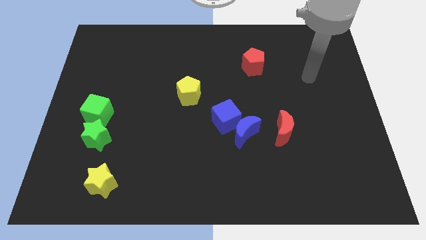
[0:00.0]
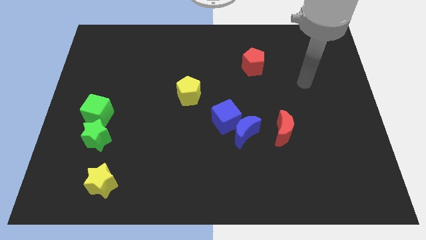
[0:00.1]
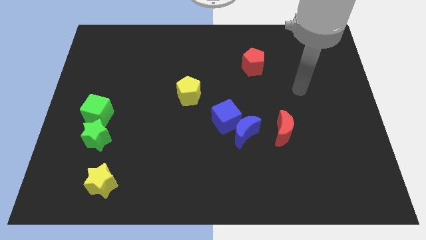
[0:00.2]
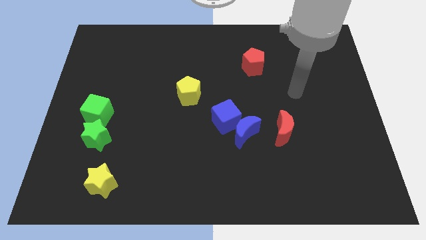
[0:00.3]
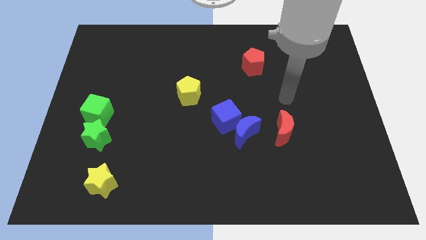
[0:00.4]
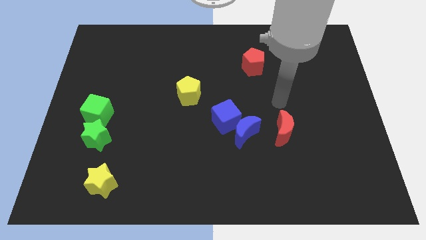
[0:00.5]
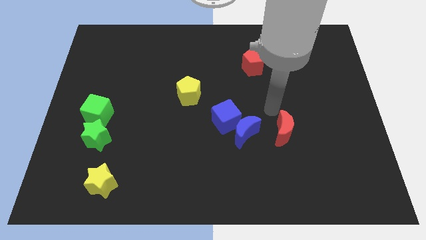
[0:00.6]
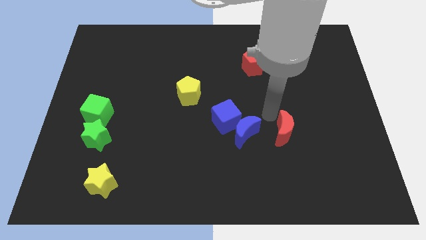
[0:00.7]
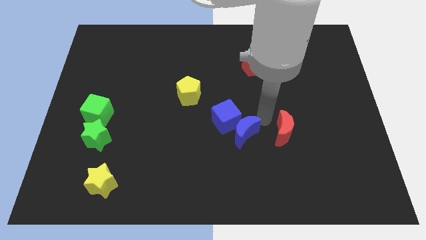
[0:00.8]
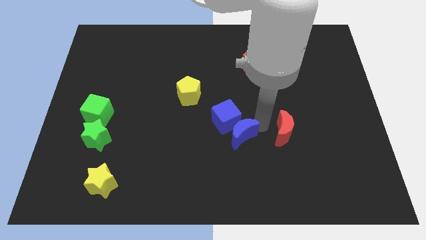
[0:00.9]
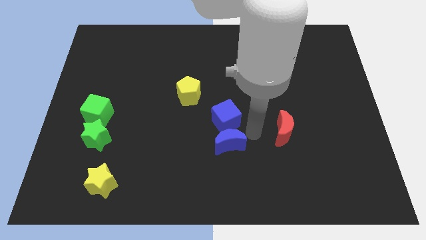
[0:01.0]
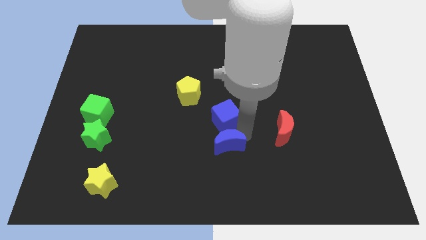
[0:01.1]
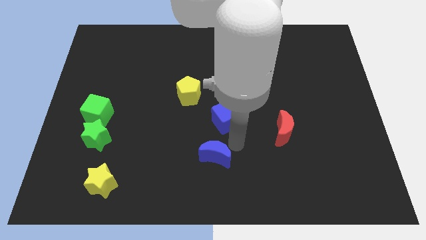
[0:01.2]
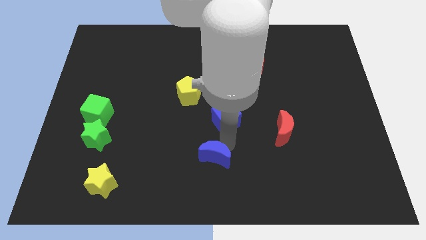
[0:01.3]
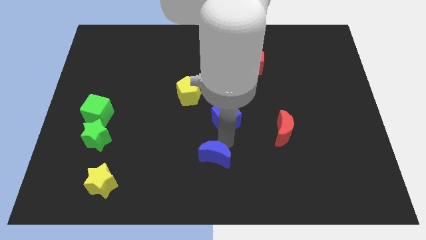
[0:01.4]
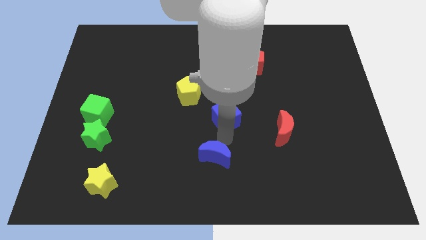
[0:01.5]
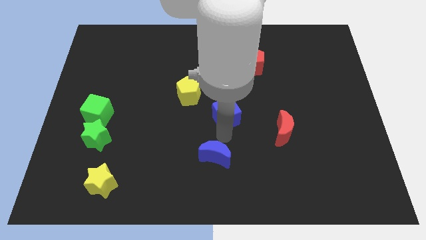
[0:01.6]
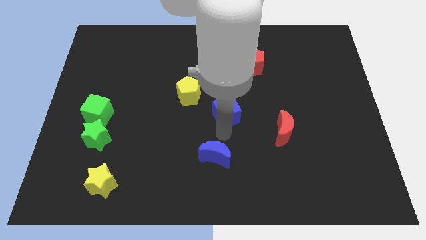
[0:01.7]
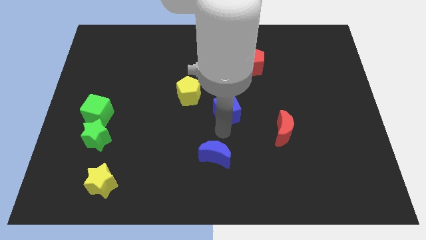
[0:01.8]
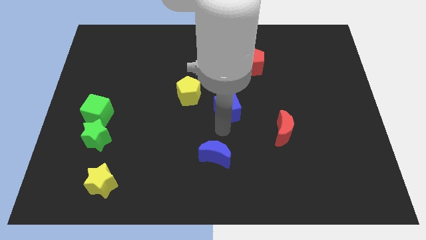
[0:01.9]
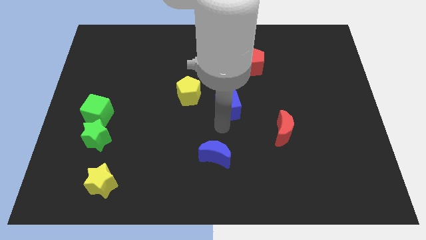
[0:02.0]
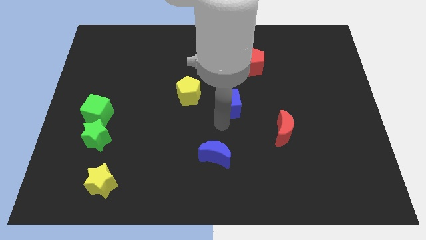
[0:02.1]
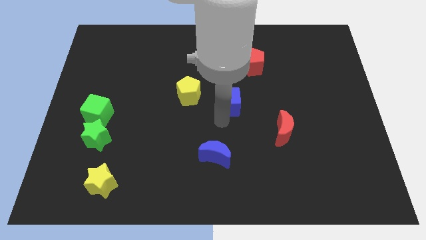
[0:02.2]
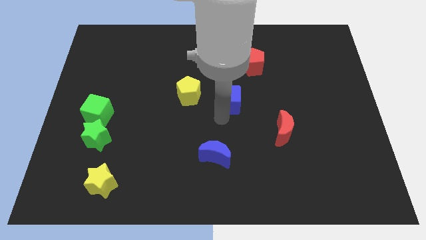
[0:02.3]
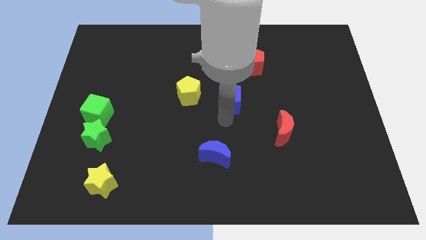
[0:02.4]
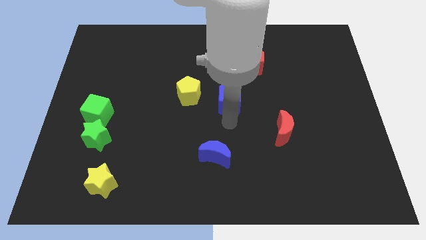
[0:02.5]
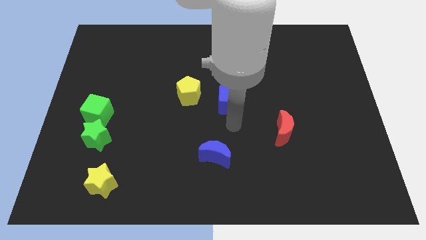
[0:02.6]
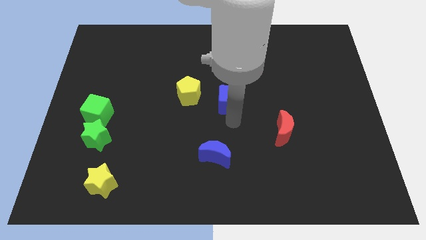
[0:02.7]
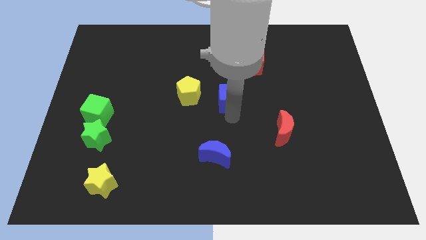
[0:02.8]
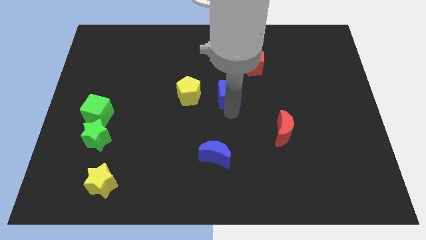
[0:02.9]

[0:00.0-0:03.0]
slide the blue cube upwards a little bit

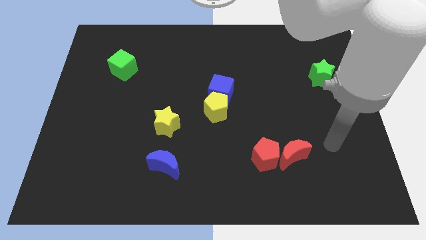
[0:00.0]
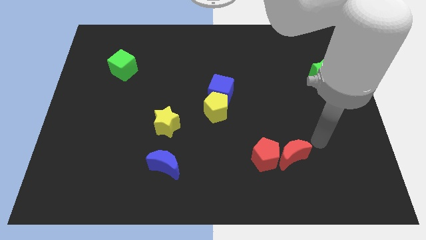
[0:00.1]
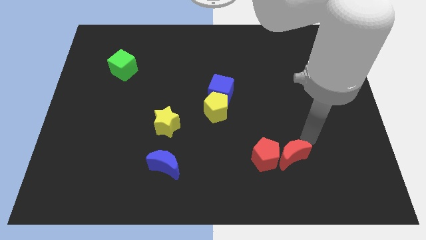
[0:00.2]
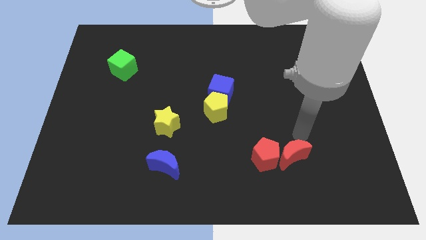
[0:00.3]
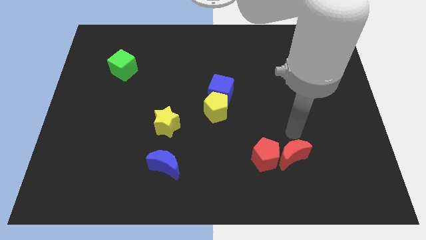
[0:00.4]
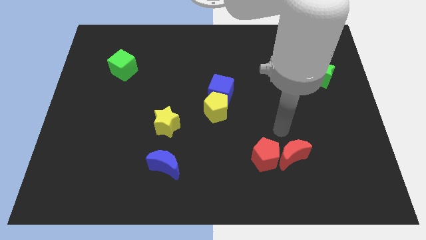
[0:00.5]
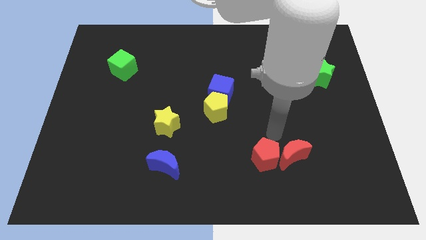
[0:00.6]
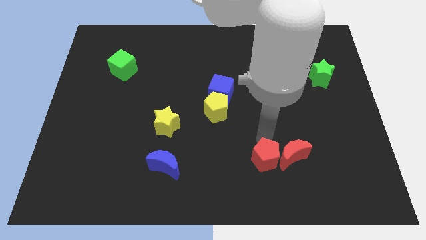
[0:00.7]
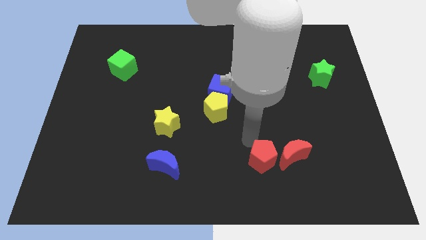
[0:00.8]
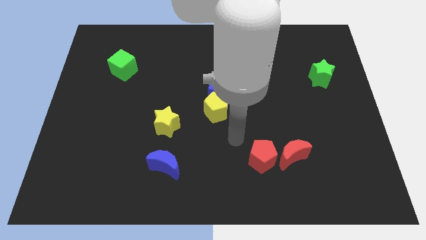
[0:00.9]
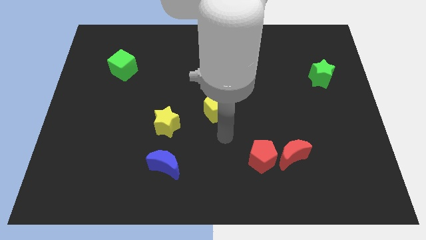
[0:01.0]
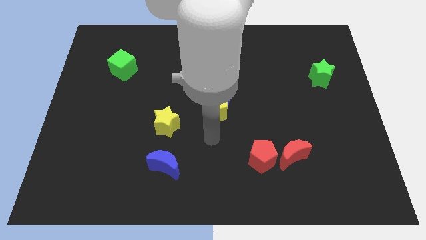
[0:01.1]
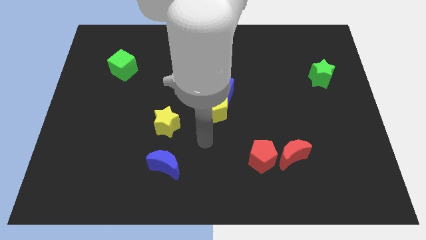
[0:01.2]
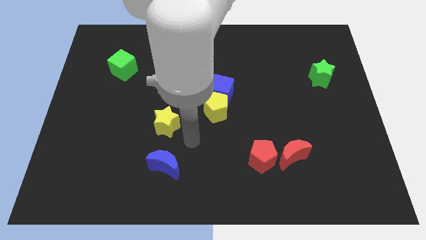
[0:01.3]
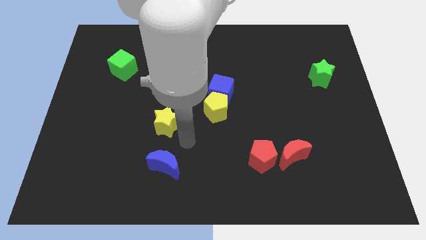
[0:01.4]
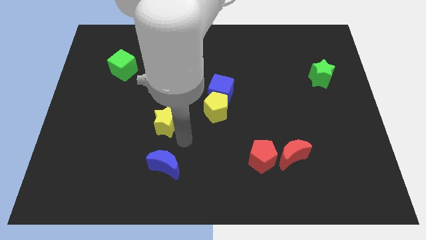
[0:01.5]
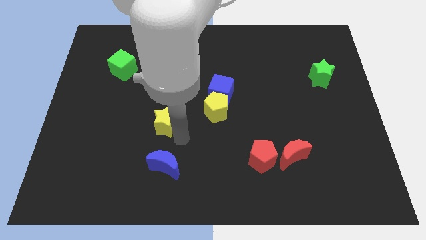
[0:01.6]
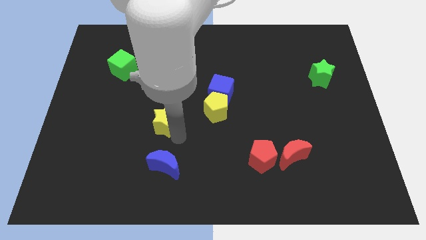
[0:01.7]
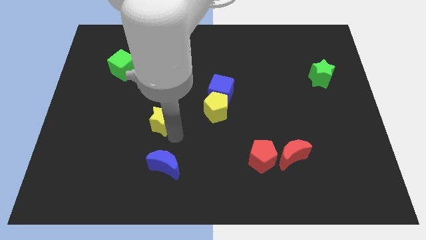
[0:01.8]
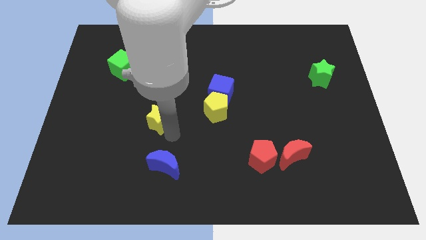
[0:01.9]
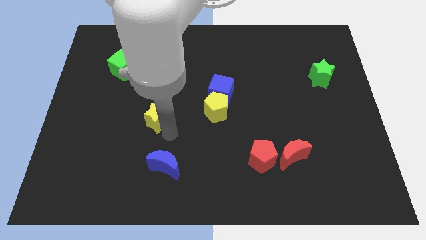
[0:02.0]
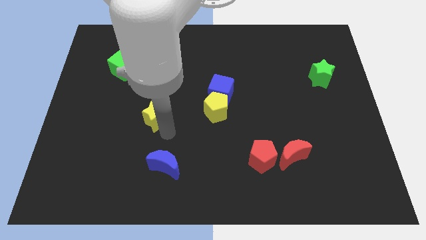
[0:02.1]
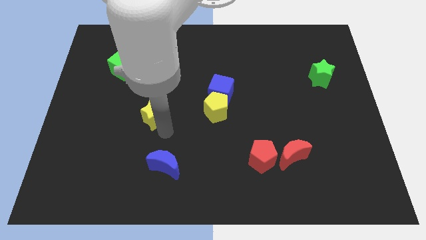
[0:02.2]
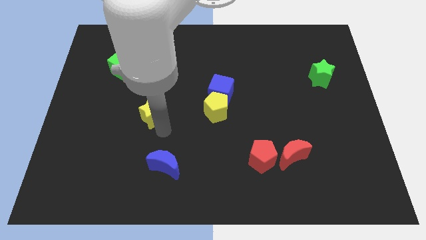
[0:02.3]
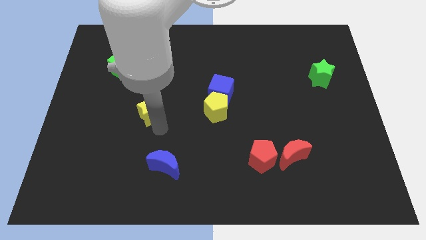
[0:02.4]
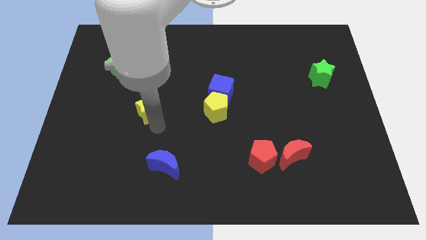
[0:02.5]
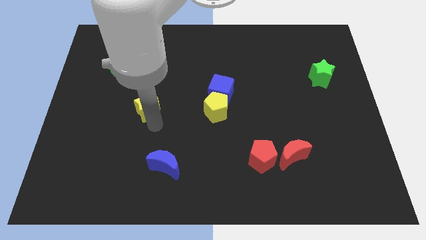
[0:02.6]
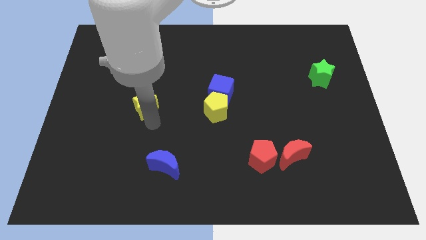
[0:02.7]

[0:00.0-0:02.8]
slightly push the yellow star upwards and to the left diagonally

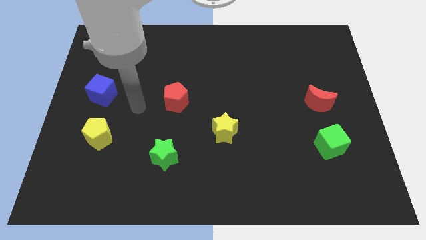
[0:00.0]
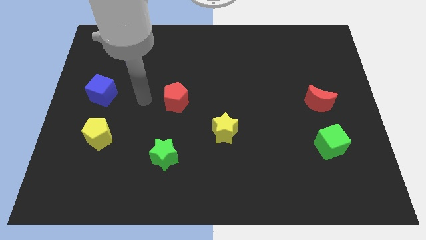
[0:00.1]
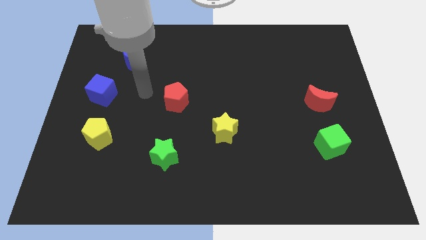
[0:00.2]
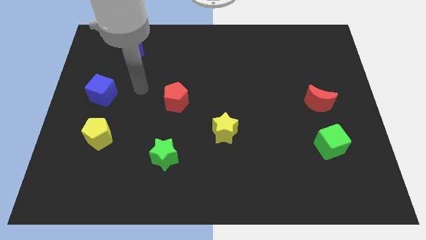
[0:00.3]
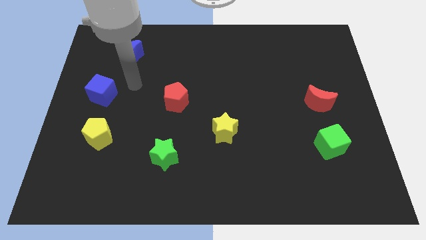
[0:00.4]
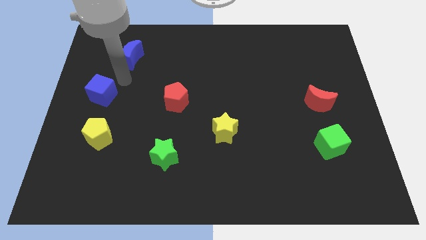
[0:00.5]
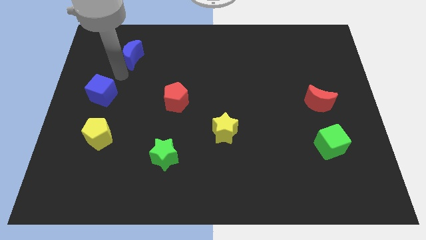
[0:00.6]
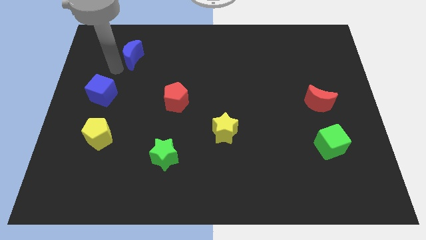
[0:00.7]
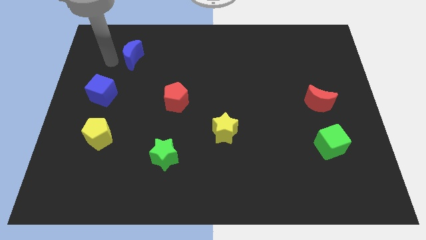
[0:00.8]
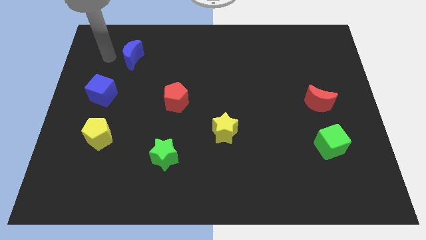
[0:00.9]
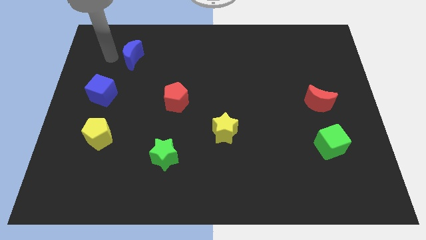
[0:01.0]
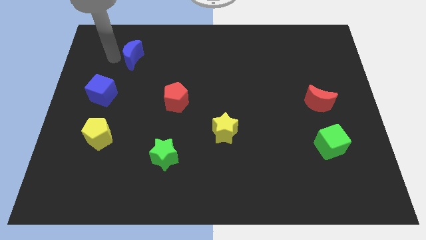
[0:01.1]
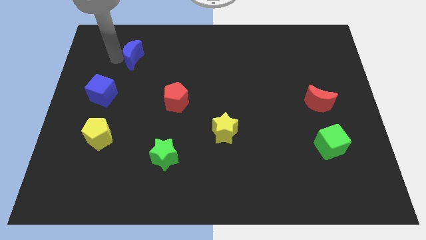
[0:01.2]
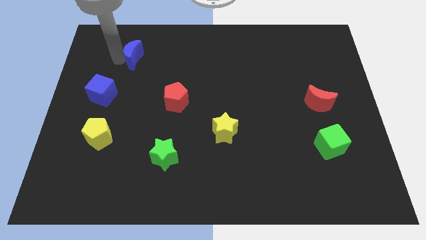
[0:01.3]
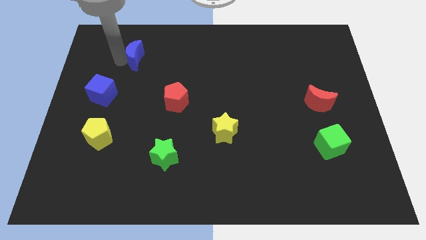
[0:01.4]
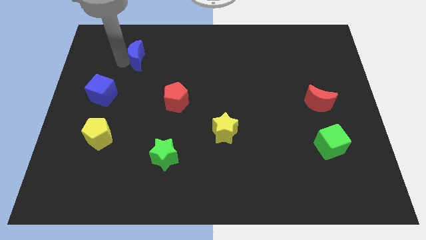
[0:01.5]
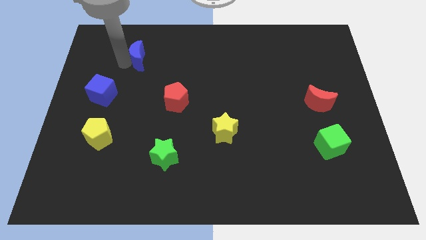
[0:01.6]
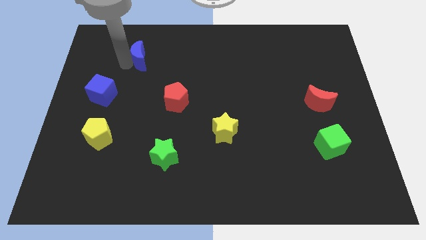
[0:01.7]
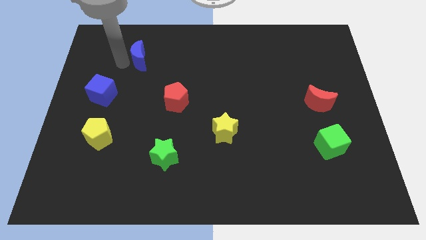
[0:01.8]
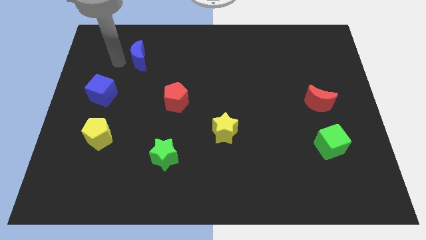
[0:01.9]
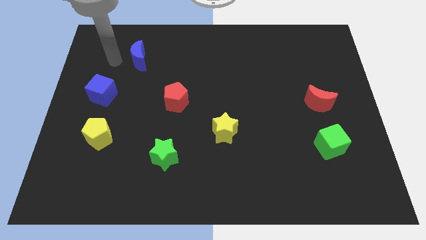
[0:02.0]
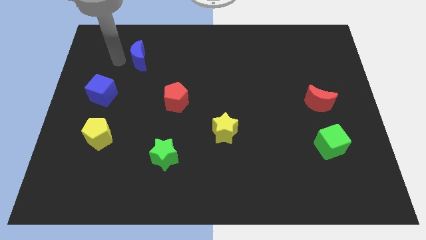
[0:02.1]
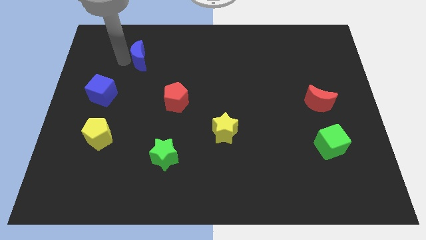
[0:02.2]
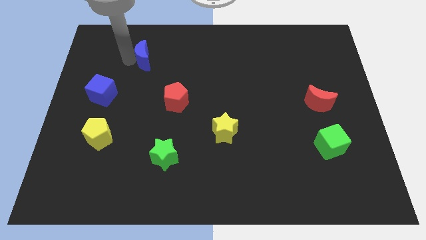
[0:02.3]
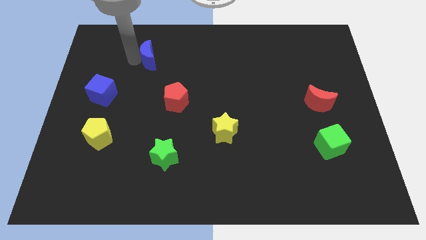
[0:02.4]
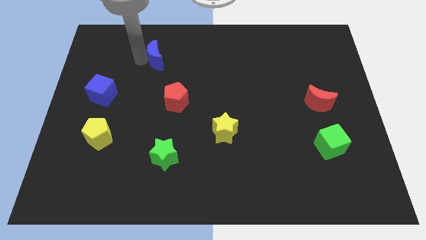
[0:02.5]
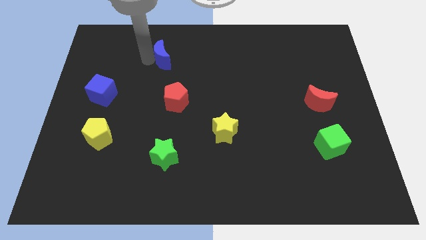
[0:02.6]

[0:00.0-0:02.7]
slide the blue moon somewhat to the right
